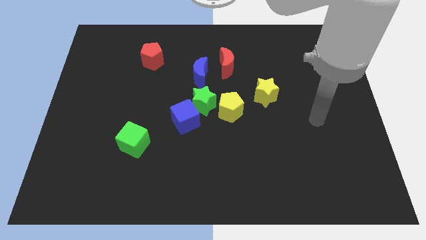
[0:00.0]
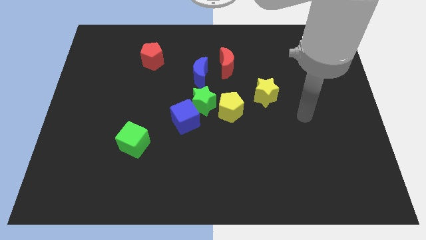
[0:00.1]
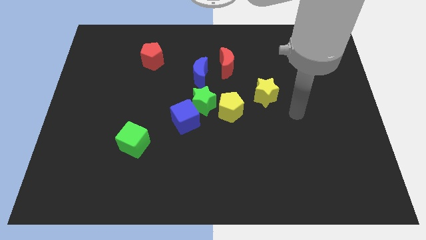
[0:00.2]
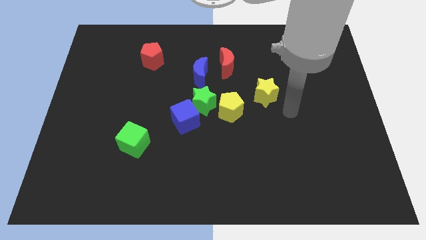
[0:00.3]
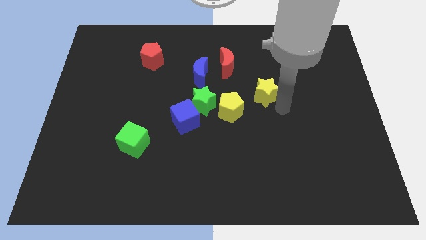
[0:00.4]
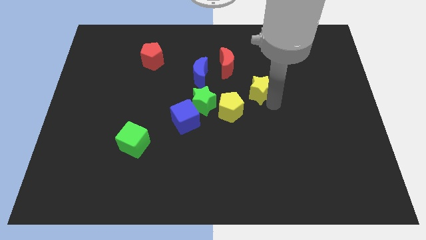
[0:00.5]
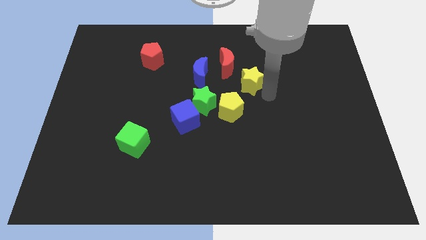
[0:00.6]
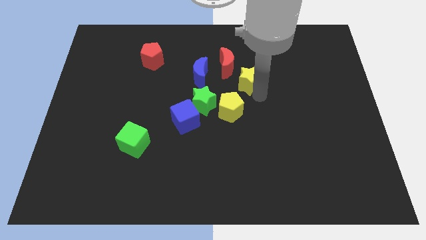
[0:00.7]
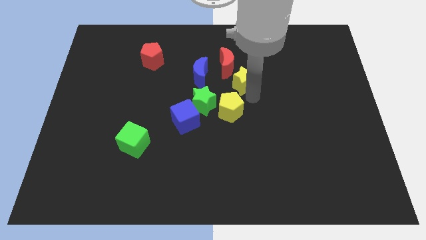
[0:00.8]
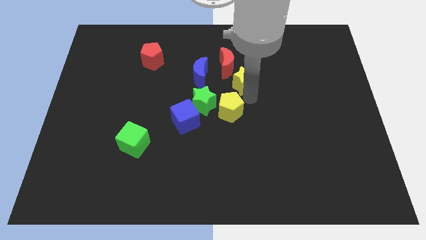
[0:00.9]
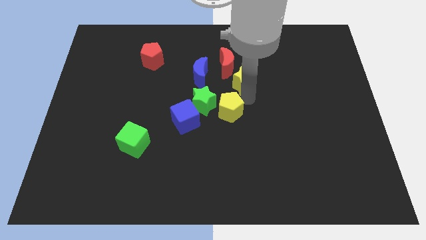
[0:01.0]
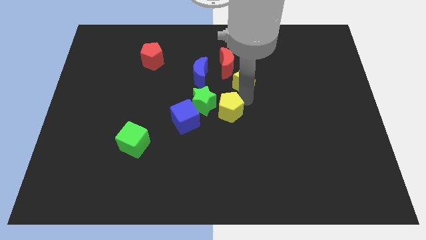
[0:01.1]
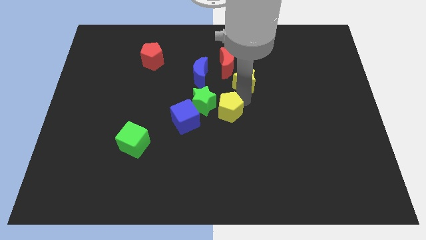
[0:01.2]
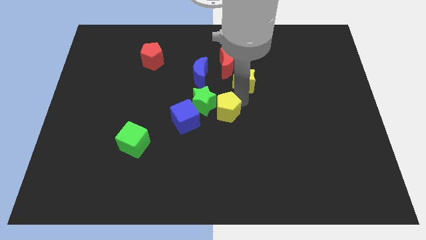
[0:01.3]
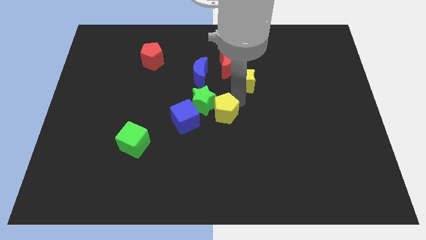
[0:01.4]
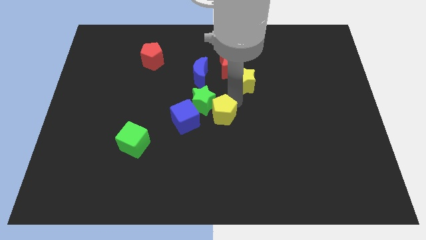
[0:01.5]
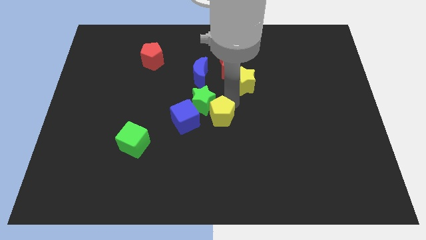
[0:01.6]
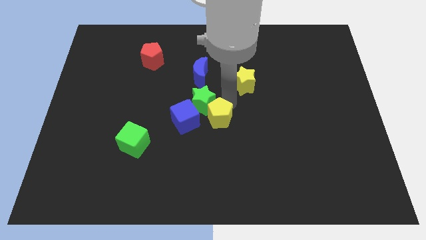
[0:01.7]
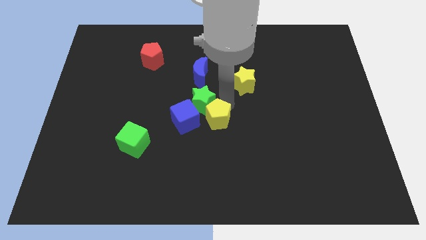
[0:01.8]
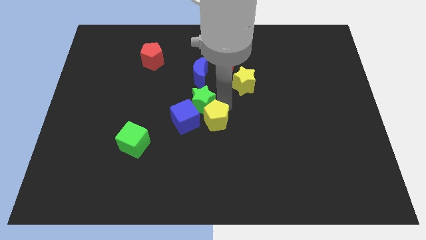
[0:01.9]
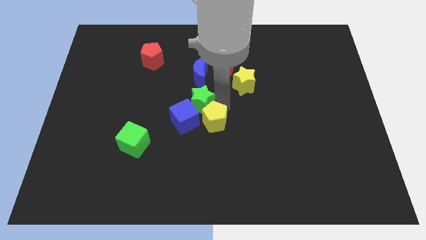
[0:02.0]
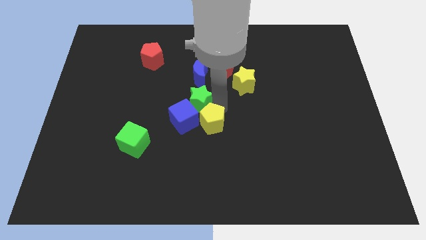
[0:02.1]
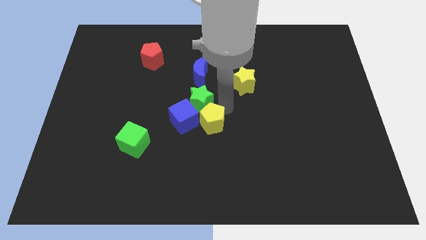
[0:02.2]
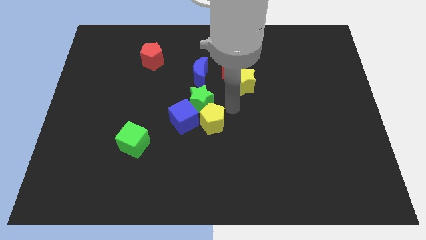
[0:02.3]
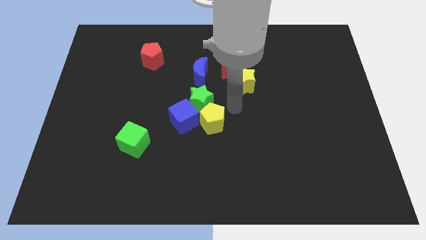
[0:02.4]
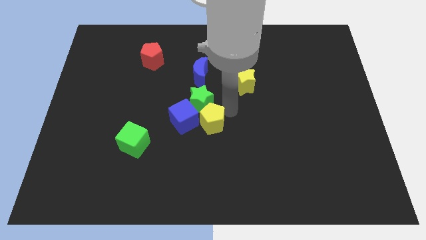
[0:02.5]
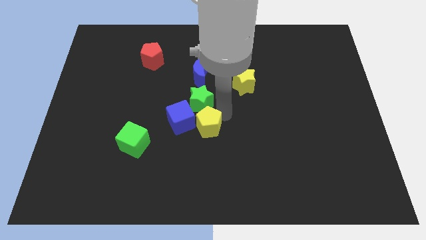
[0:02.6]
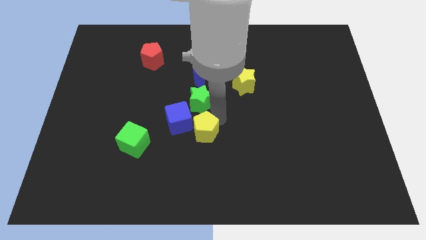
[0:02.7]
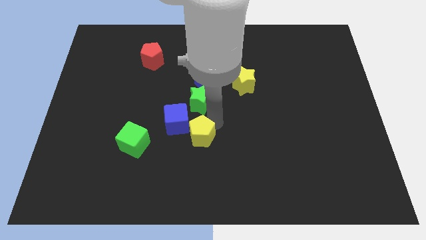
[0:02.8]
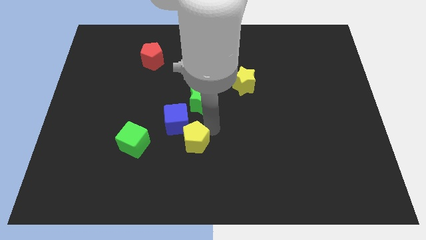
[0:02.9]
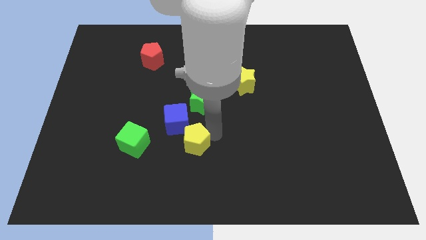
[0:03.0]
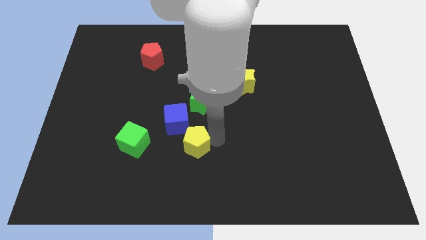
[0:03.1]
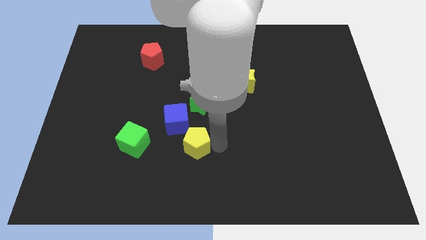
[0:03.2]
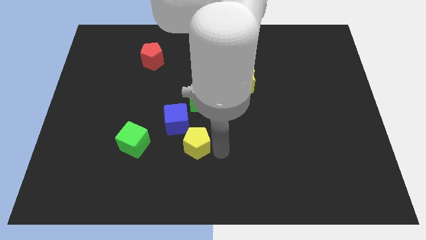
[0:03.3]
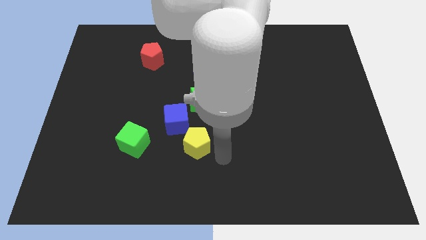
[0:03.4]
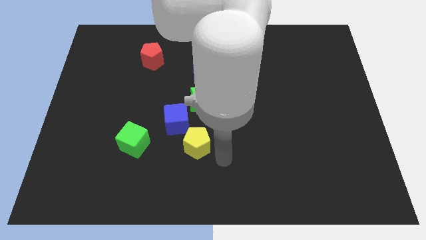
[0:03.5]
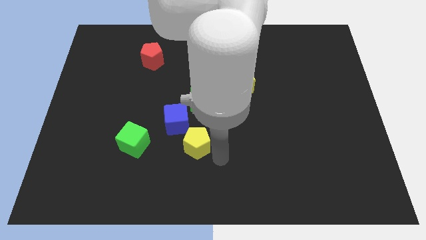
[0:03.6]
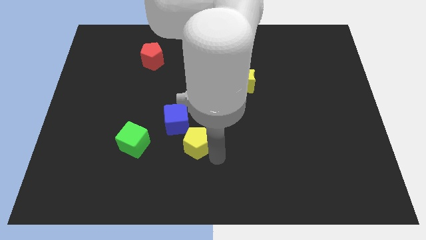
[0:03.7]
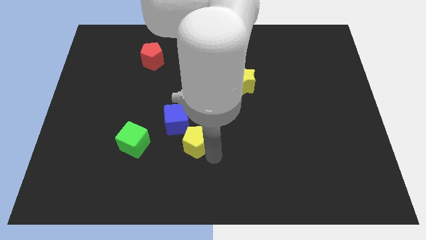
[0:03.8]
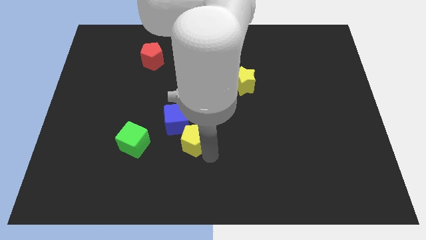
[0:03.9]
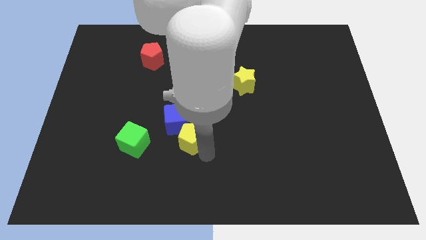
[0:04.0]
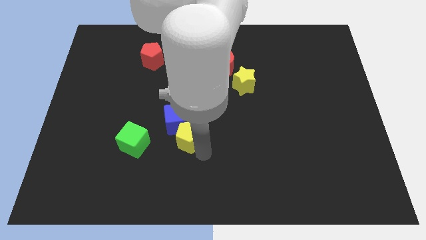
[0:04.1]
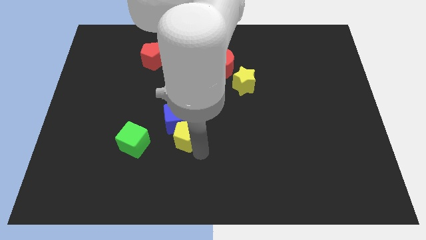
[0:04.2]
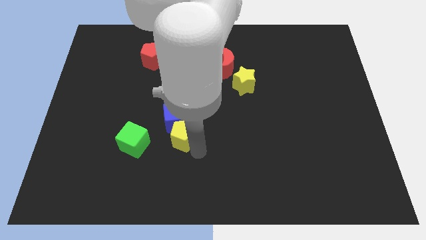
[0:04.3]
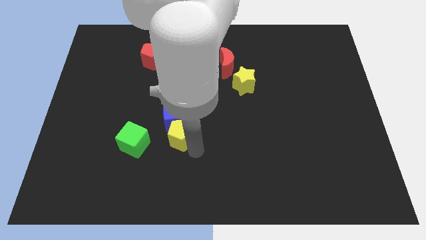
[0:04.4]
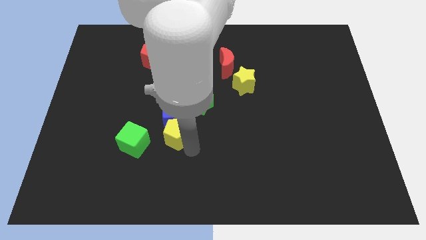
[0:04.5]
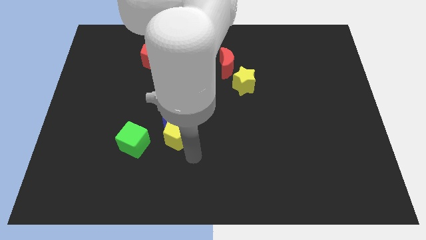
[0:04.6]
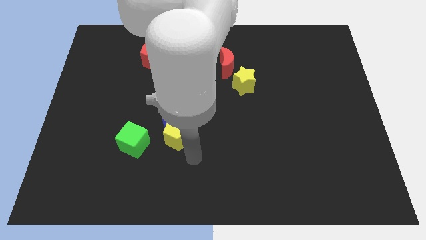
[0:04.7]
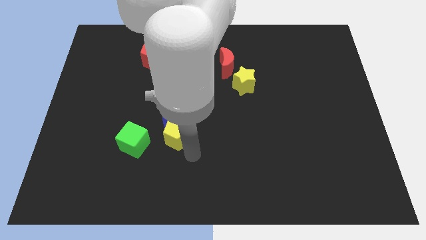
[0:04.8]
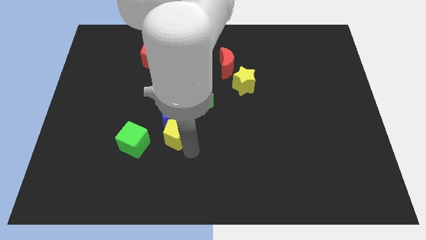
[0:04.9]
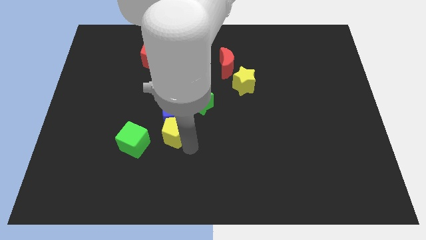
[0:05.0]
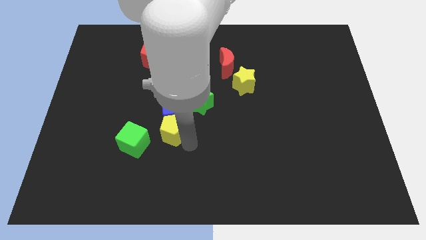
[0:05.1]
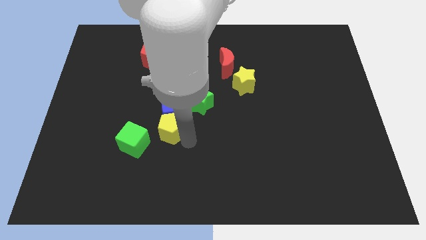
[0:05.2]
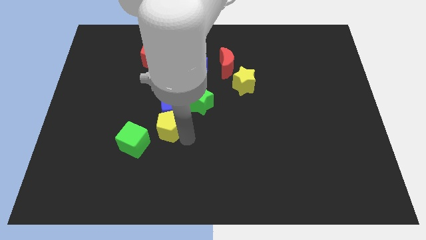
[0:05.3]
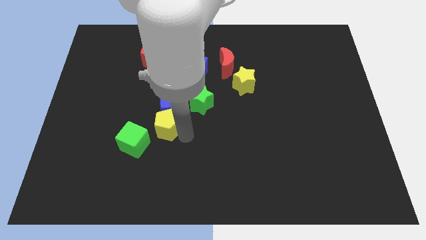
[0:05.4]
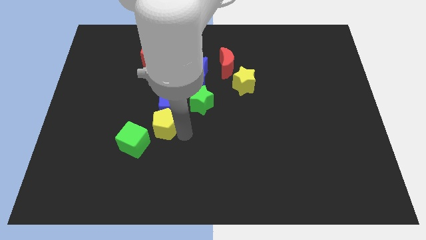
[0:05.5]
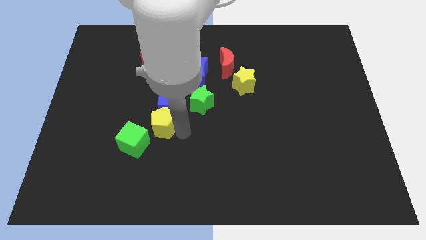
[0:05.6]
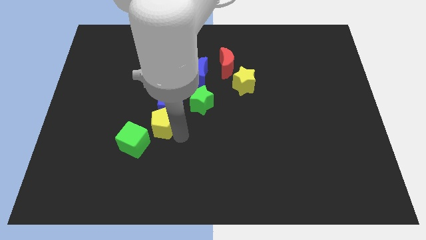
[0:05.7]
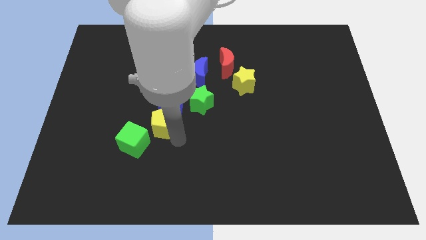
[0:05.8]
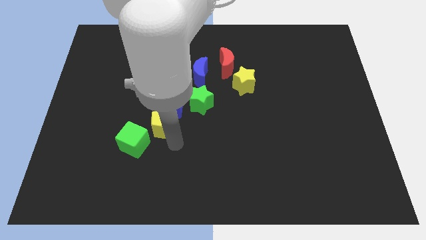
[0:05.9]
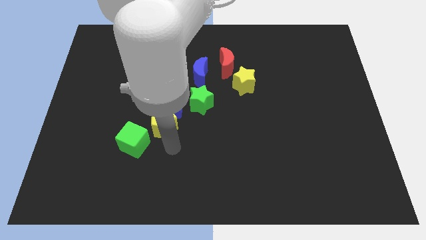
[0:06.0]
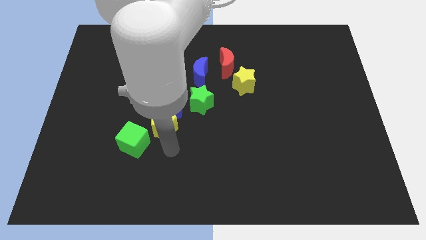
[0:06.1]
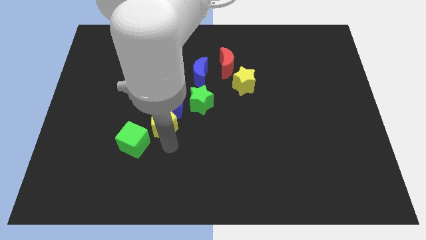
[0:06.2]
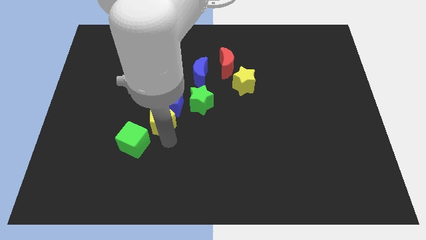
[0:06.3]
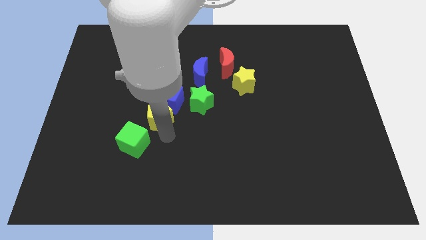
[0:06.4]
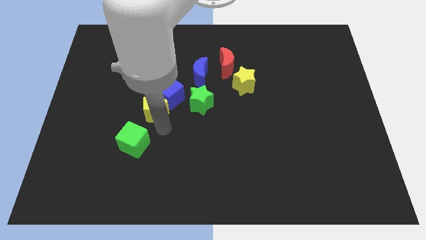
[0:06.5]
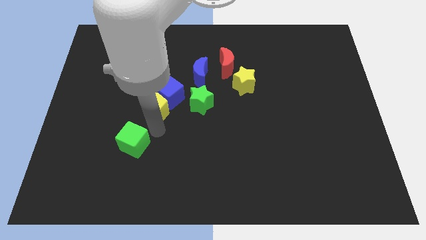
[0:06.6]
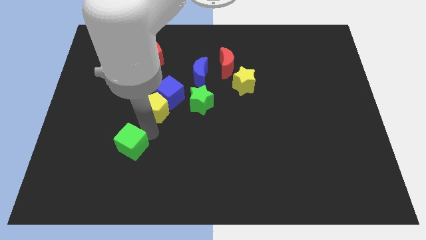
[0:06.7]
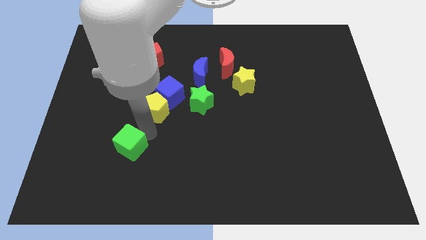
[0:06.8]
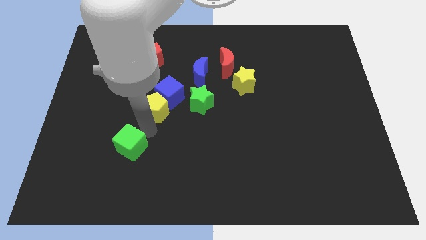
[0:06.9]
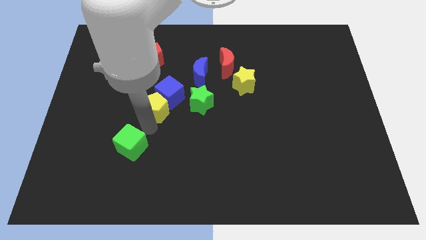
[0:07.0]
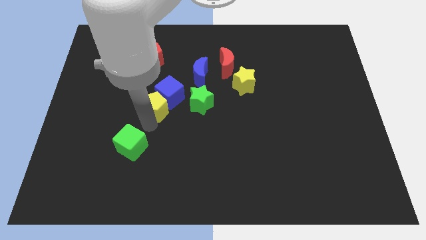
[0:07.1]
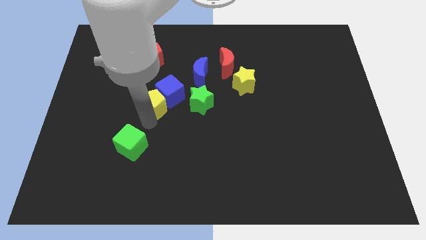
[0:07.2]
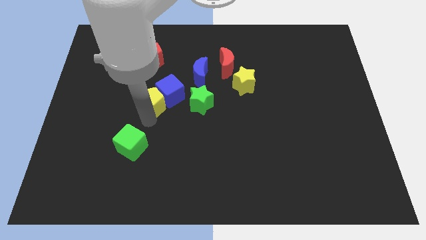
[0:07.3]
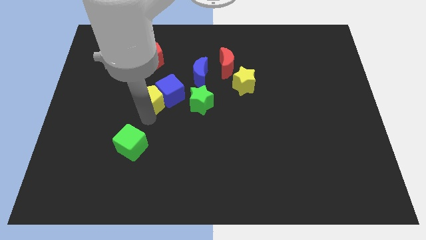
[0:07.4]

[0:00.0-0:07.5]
move the yellow pentagon slightly up and to the left diagonally
